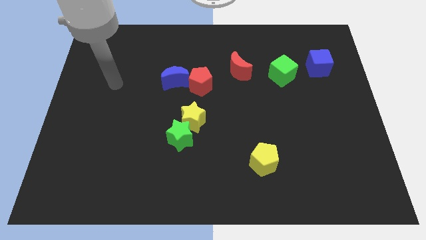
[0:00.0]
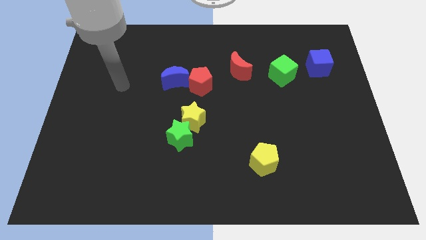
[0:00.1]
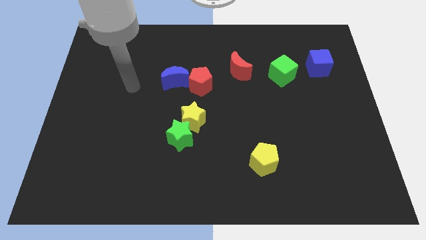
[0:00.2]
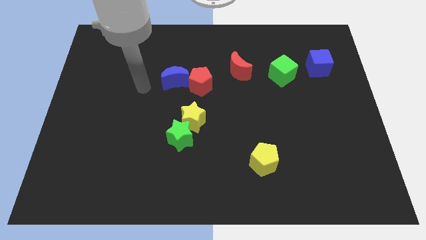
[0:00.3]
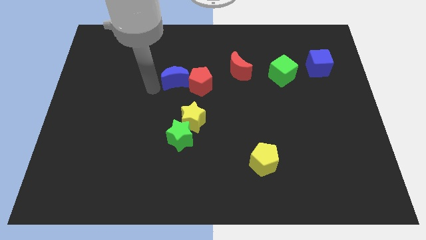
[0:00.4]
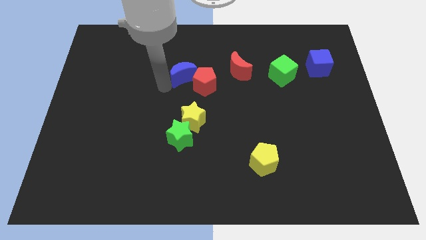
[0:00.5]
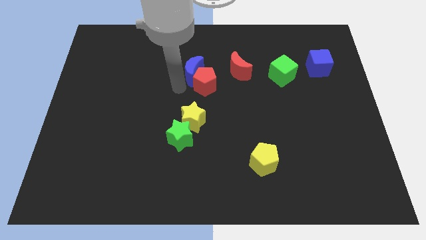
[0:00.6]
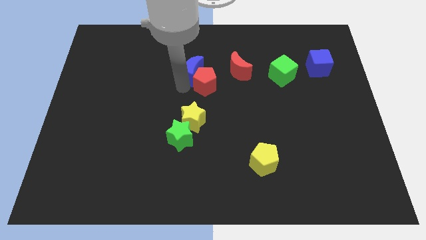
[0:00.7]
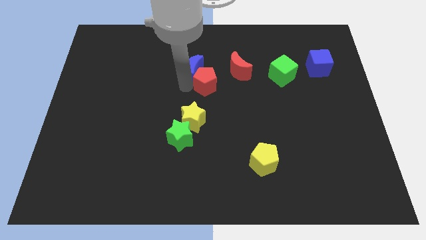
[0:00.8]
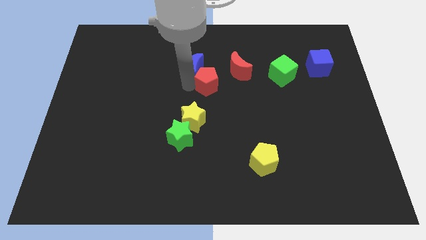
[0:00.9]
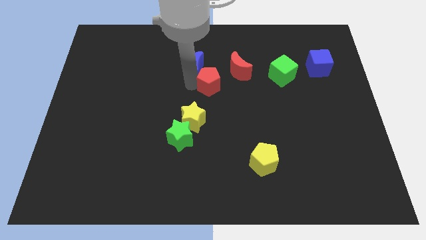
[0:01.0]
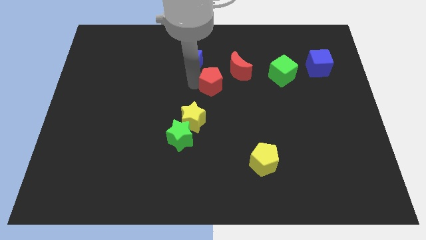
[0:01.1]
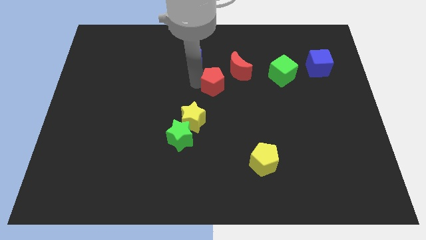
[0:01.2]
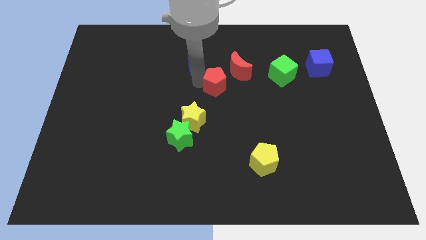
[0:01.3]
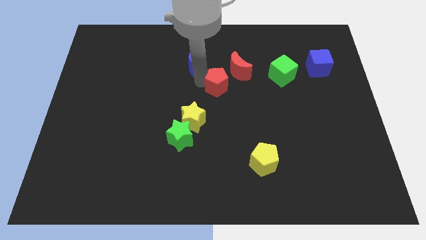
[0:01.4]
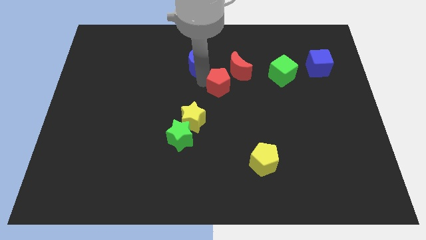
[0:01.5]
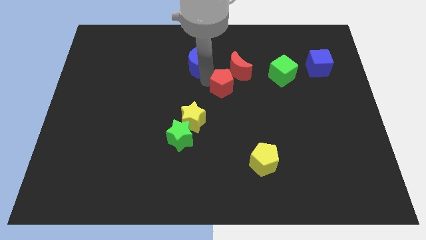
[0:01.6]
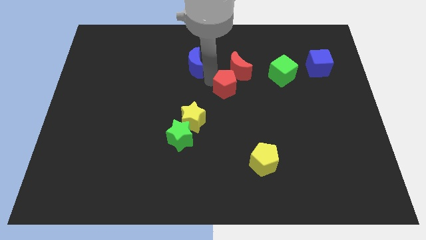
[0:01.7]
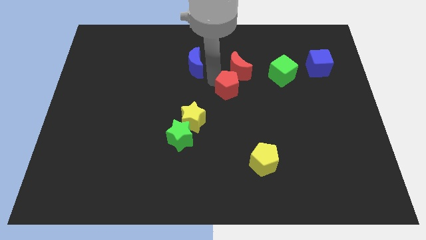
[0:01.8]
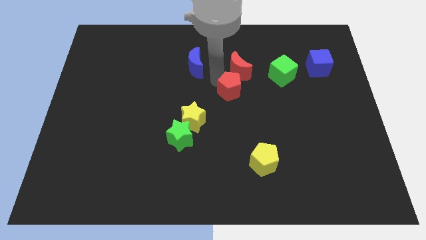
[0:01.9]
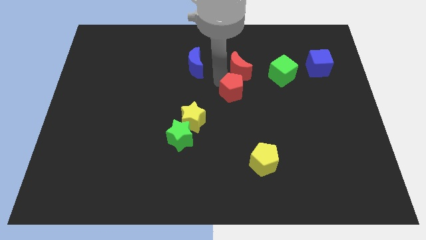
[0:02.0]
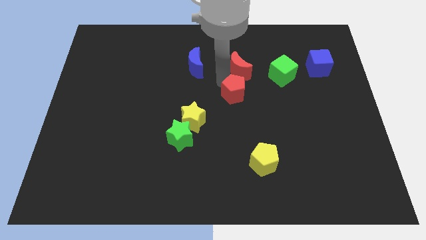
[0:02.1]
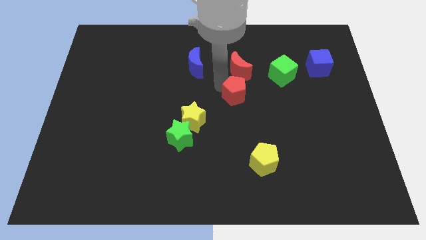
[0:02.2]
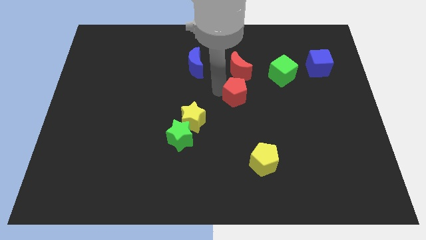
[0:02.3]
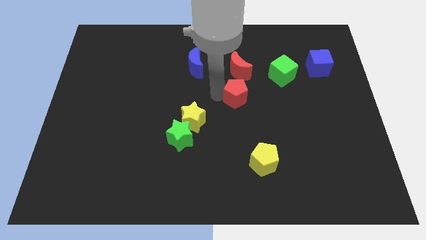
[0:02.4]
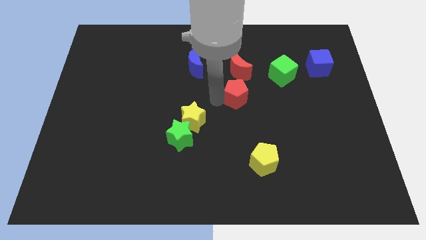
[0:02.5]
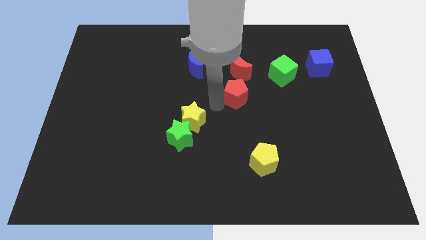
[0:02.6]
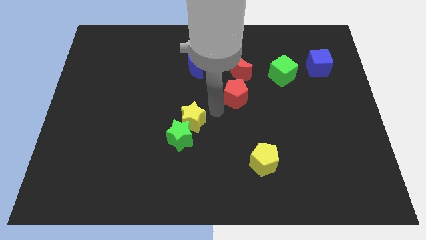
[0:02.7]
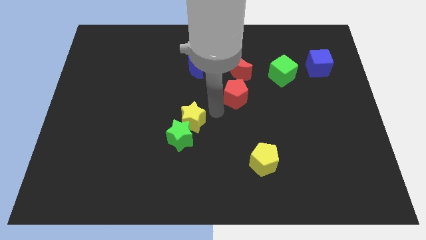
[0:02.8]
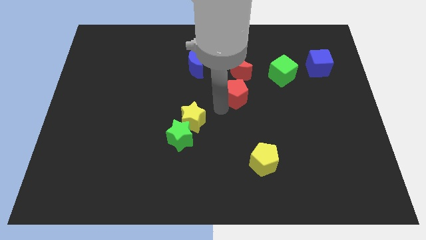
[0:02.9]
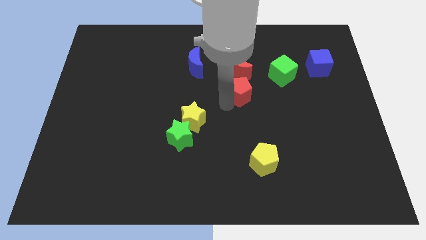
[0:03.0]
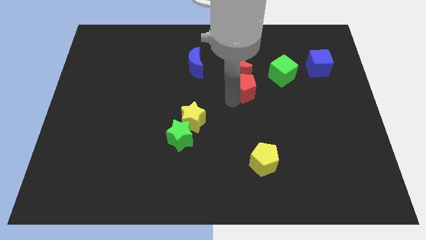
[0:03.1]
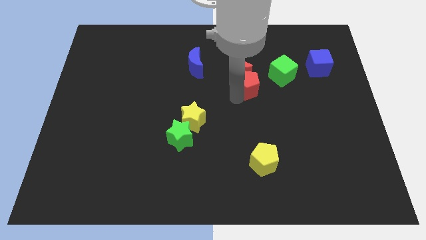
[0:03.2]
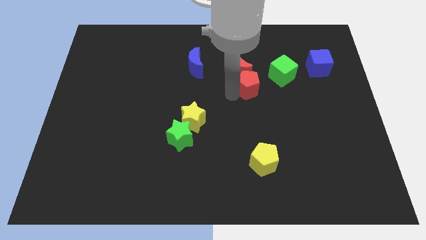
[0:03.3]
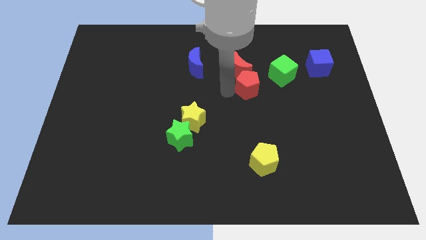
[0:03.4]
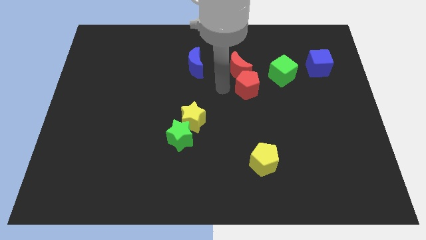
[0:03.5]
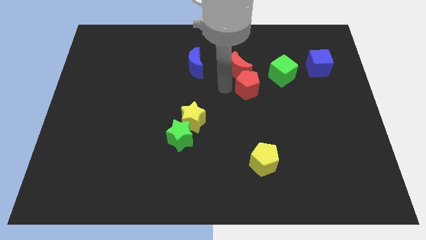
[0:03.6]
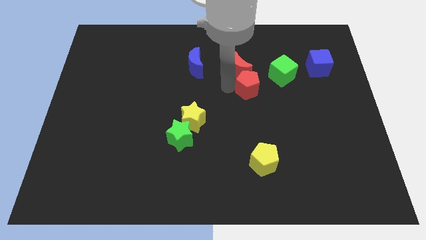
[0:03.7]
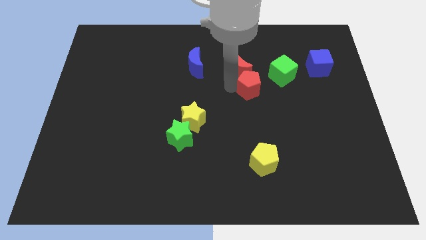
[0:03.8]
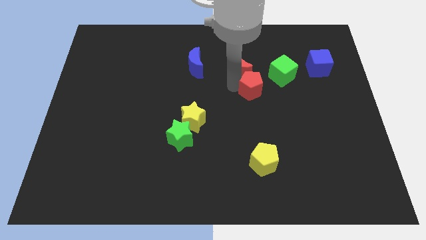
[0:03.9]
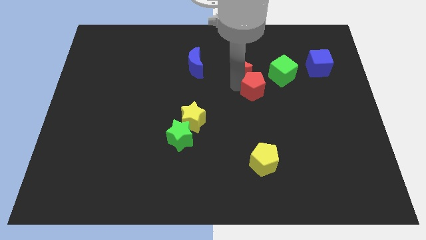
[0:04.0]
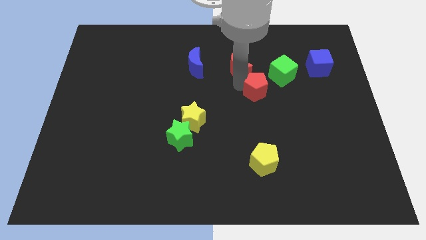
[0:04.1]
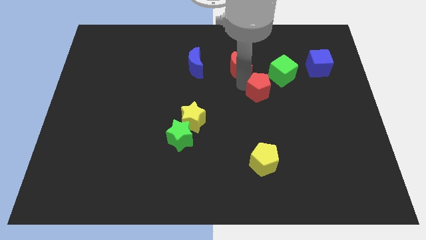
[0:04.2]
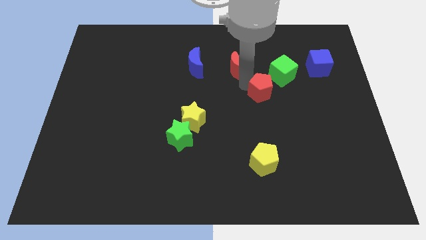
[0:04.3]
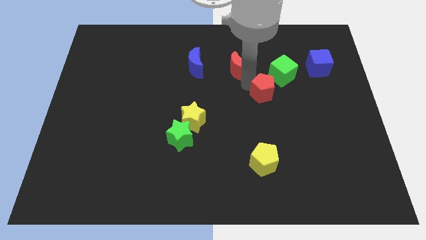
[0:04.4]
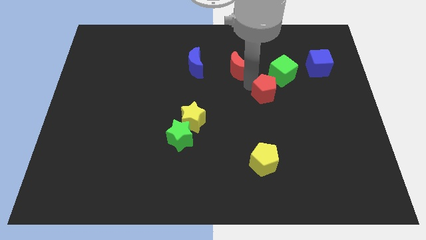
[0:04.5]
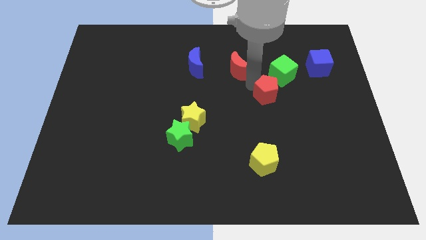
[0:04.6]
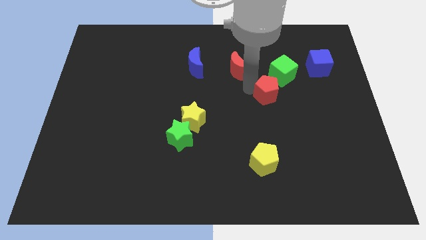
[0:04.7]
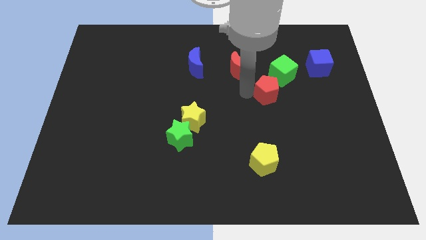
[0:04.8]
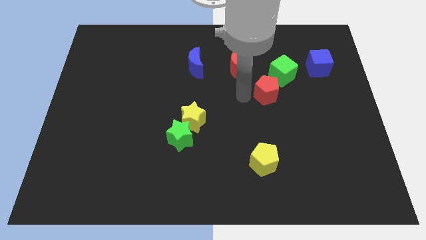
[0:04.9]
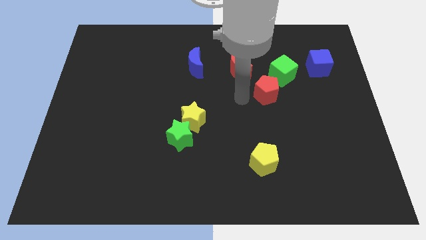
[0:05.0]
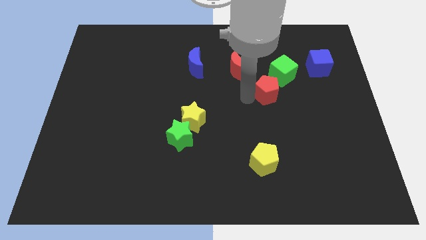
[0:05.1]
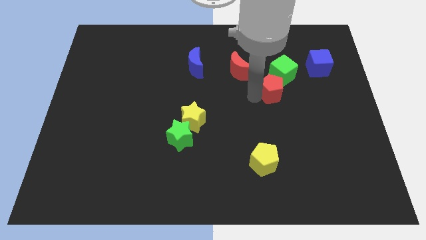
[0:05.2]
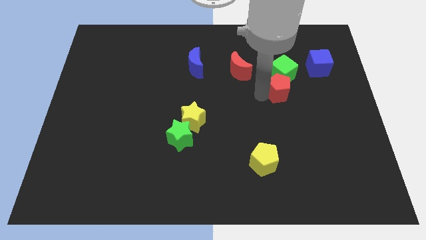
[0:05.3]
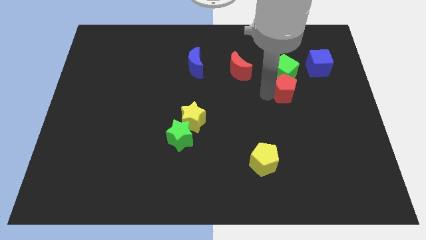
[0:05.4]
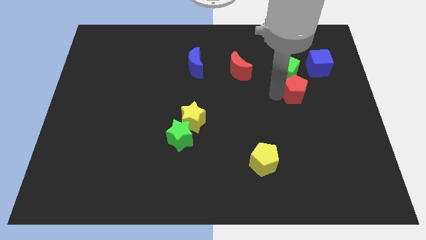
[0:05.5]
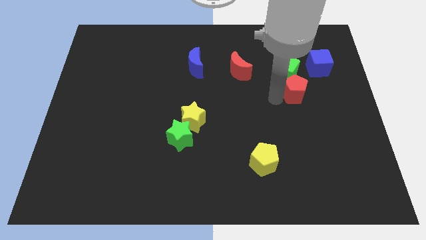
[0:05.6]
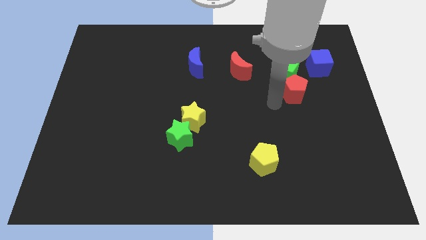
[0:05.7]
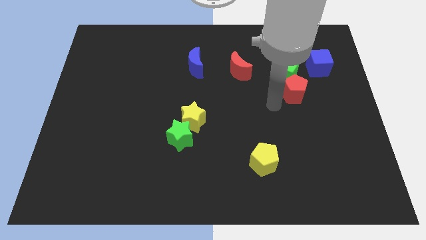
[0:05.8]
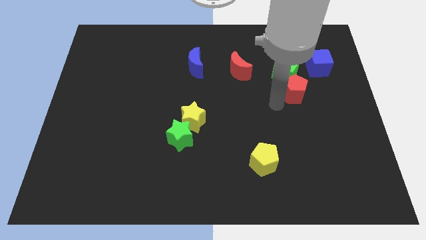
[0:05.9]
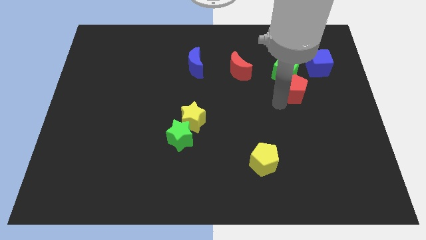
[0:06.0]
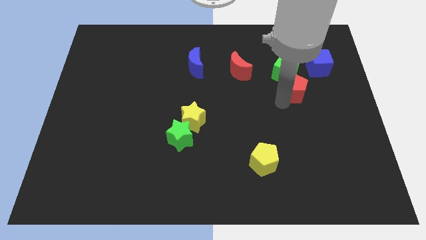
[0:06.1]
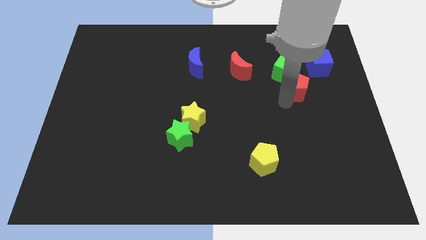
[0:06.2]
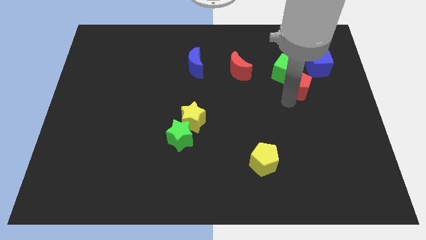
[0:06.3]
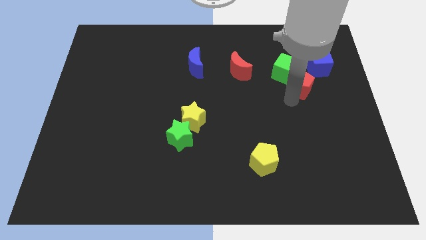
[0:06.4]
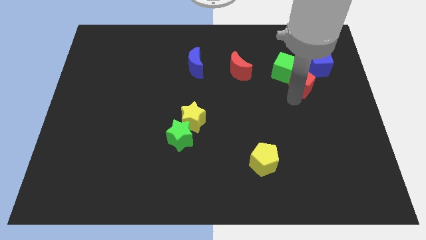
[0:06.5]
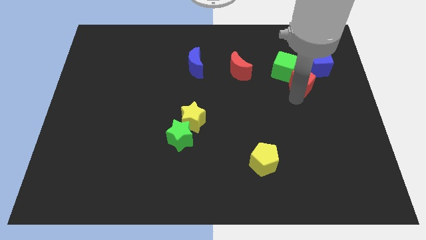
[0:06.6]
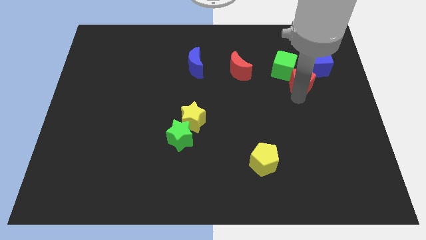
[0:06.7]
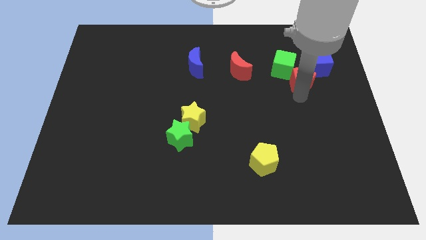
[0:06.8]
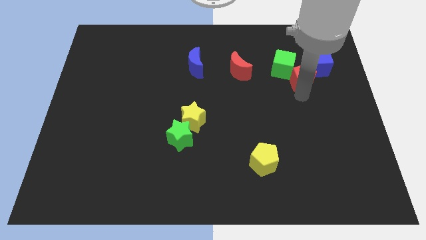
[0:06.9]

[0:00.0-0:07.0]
put the red pentagon to the right side of the green cube
